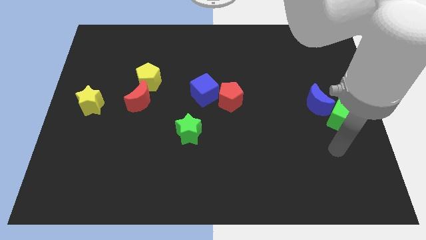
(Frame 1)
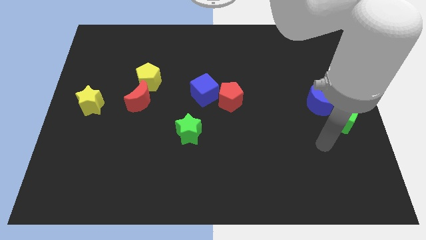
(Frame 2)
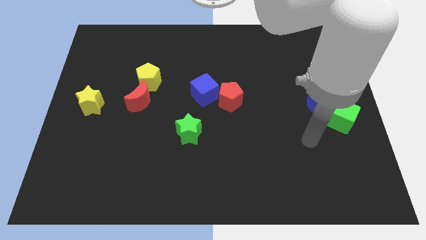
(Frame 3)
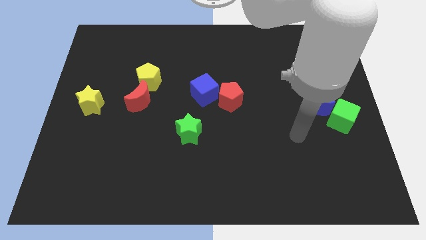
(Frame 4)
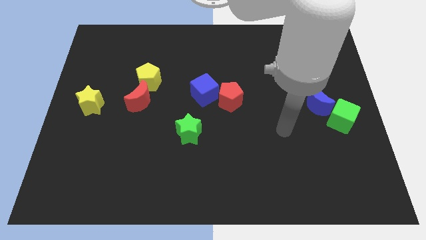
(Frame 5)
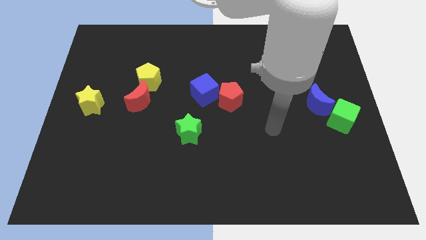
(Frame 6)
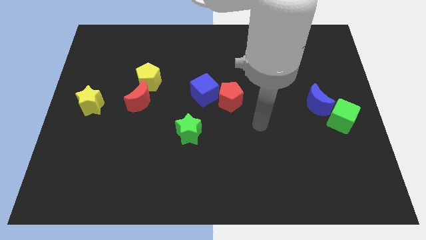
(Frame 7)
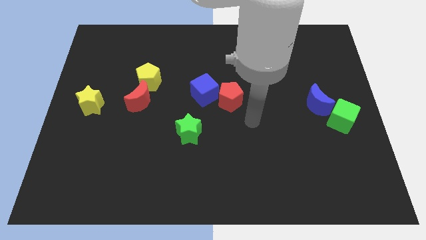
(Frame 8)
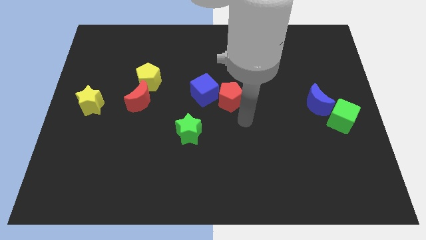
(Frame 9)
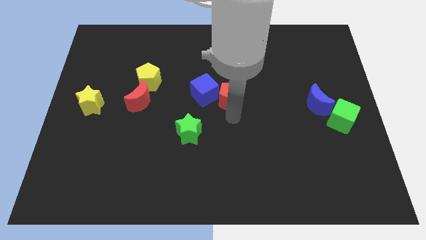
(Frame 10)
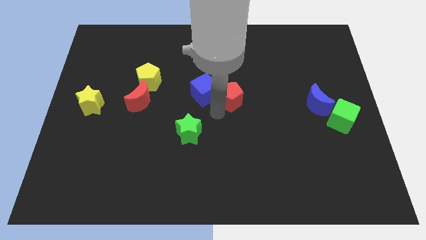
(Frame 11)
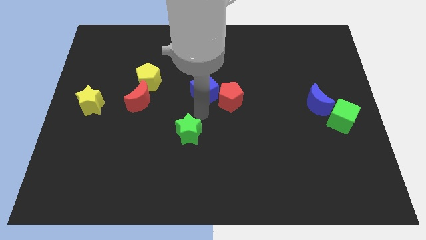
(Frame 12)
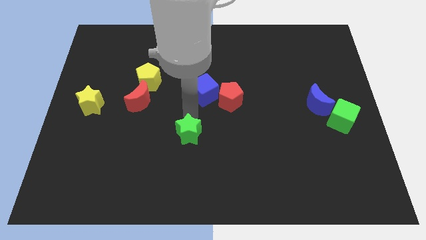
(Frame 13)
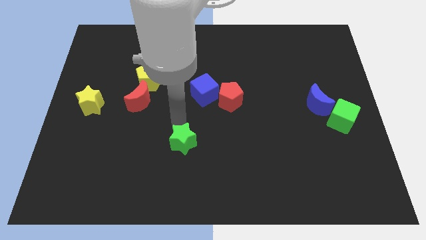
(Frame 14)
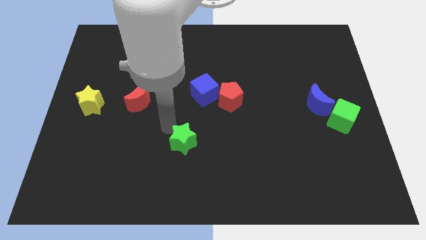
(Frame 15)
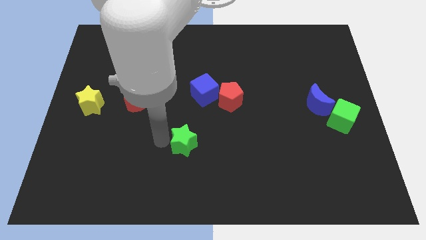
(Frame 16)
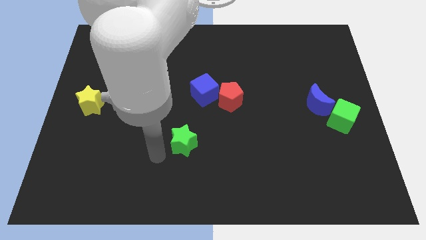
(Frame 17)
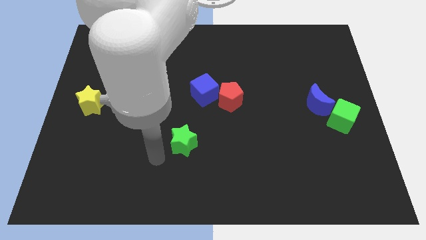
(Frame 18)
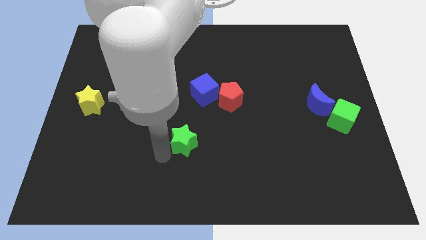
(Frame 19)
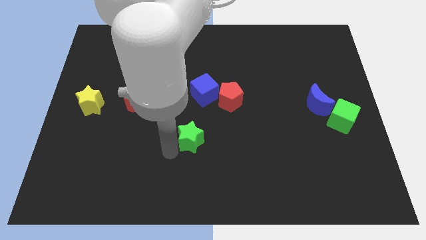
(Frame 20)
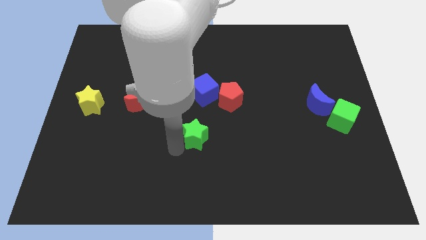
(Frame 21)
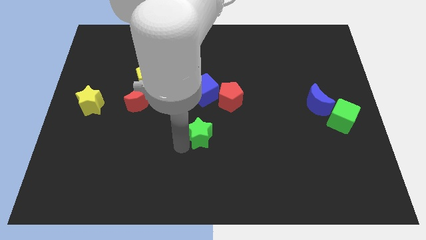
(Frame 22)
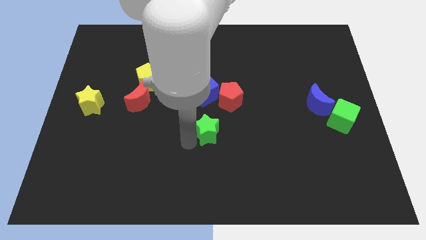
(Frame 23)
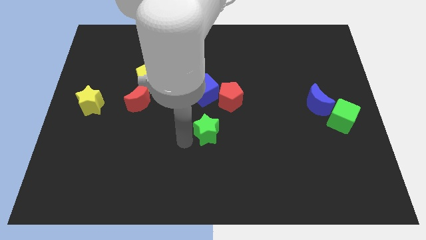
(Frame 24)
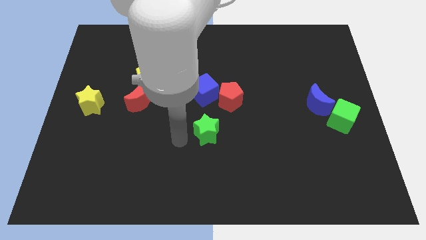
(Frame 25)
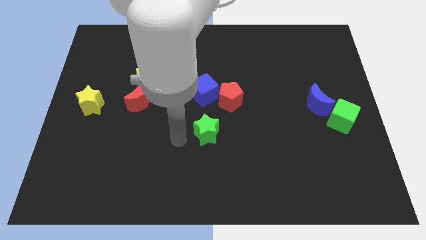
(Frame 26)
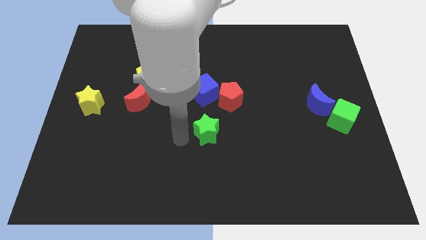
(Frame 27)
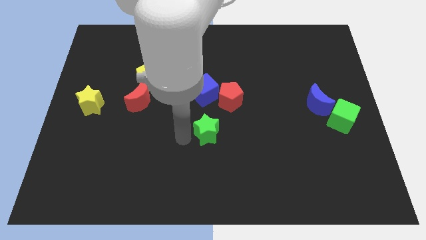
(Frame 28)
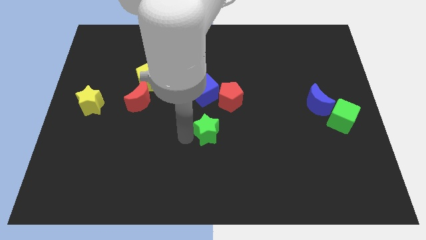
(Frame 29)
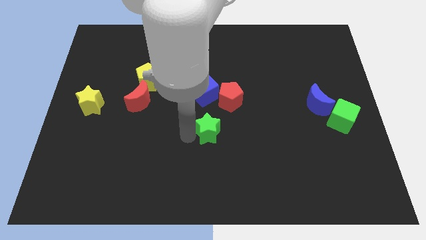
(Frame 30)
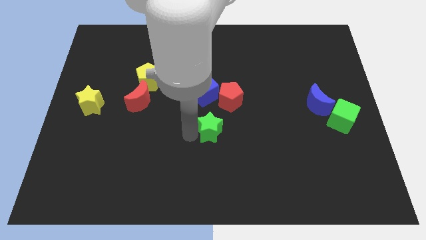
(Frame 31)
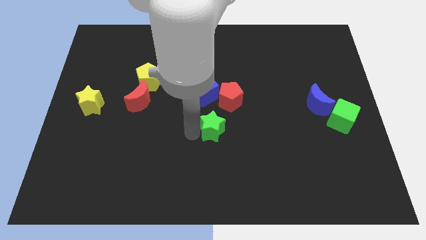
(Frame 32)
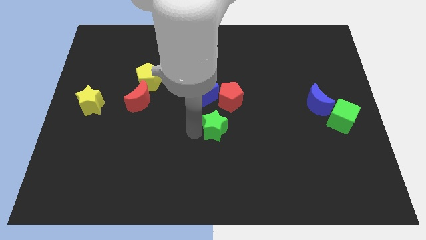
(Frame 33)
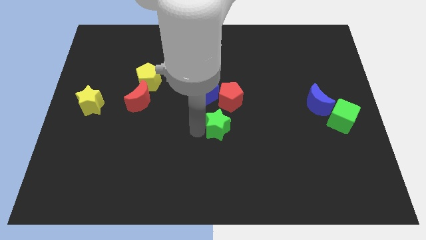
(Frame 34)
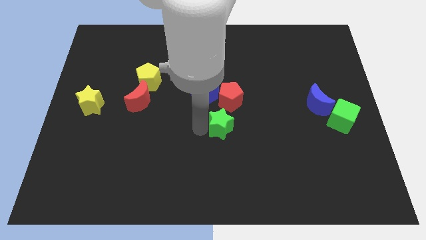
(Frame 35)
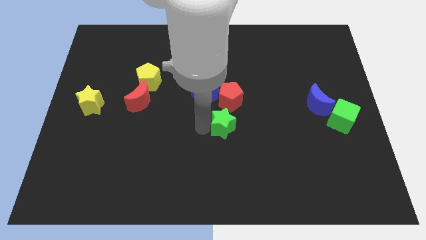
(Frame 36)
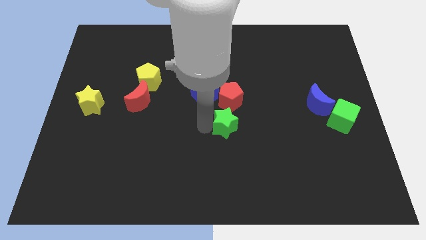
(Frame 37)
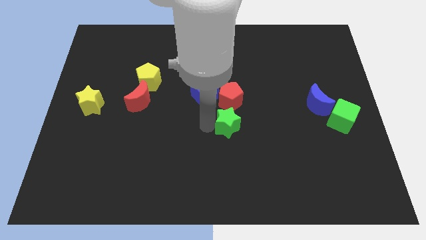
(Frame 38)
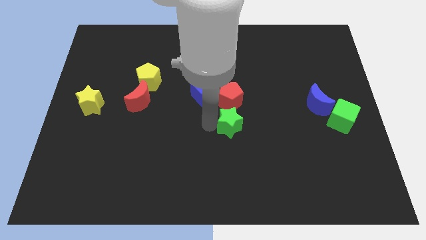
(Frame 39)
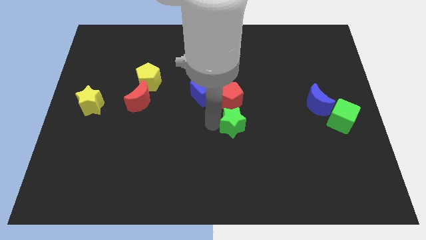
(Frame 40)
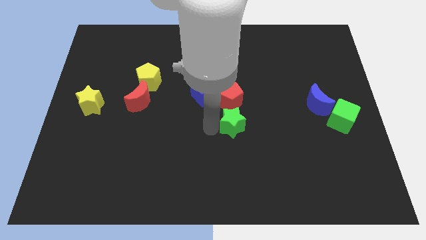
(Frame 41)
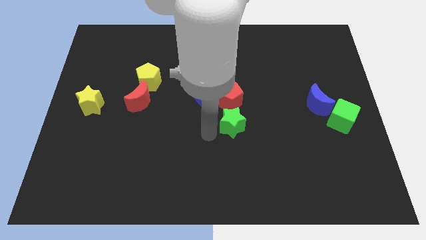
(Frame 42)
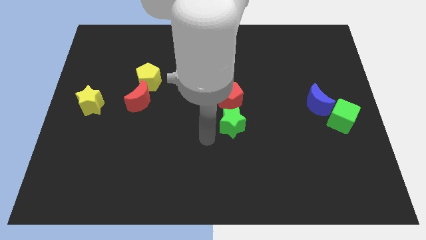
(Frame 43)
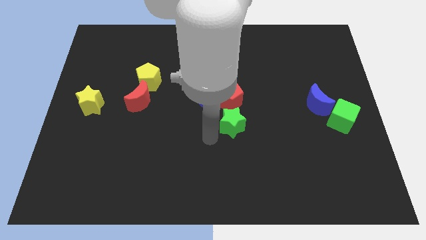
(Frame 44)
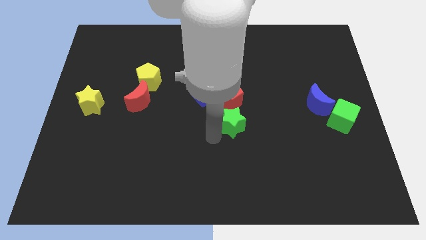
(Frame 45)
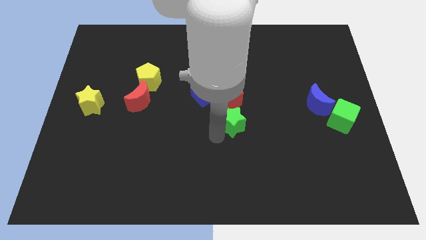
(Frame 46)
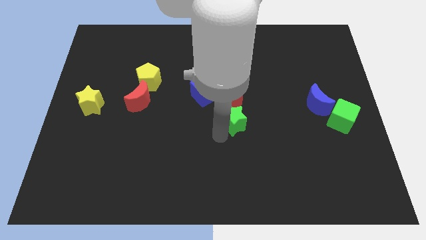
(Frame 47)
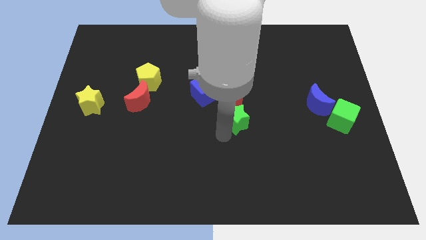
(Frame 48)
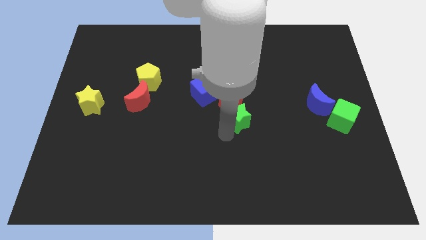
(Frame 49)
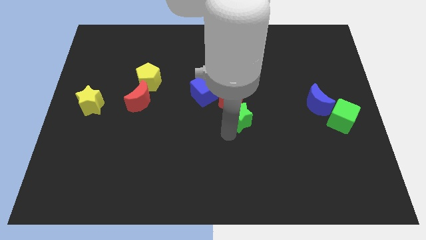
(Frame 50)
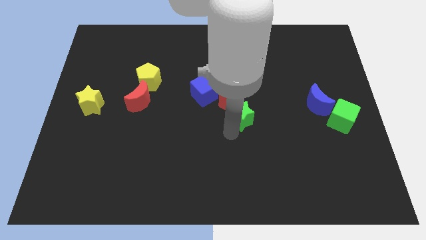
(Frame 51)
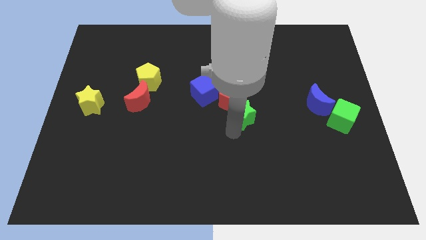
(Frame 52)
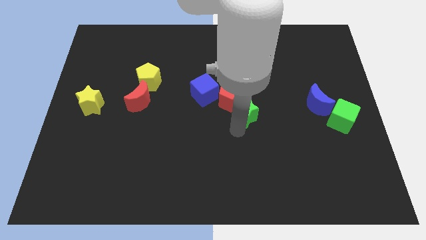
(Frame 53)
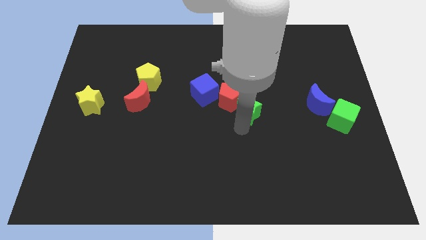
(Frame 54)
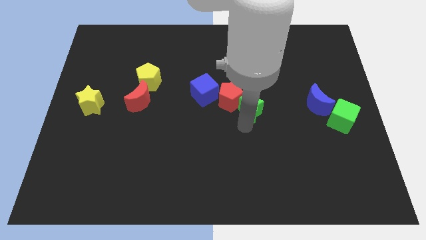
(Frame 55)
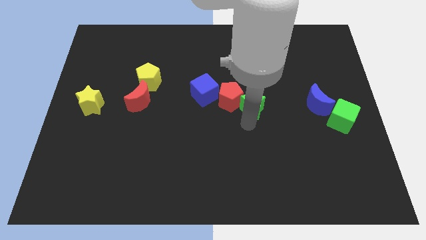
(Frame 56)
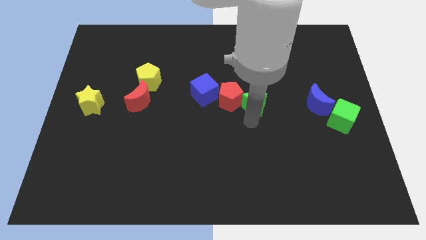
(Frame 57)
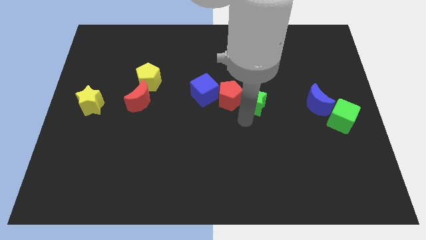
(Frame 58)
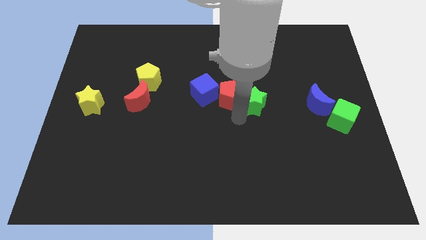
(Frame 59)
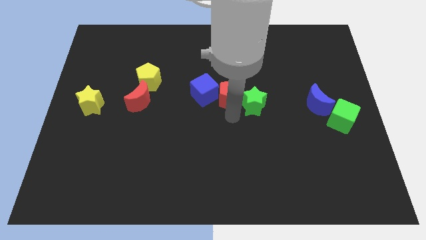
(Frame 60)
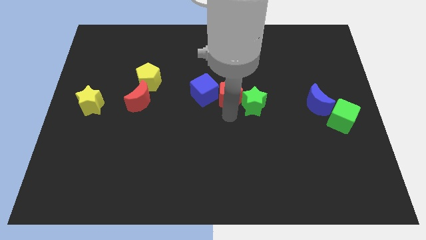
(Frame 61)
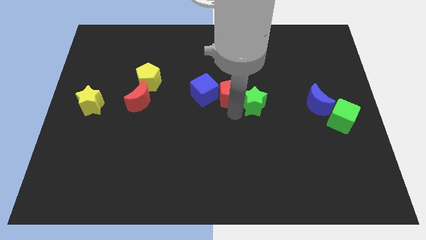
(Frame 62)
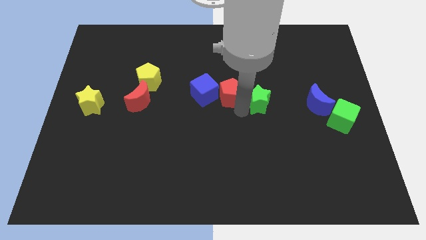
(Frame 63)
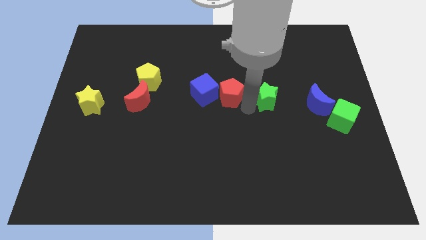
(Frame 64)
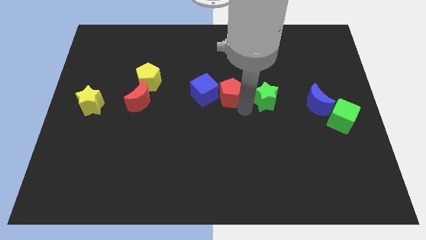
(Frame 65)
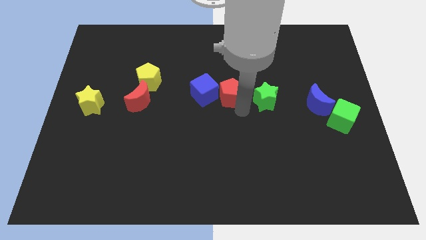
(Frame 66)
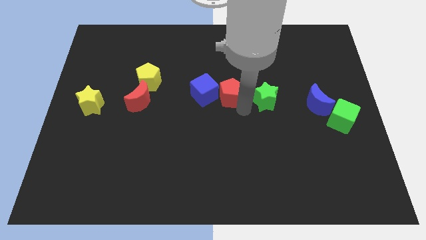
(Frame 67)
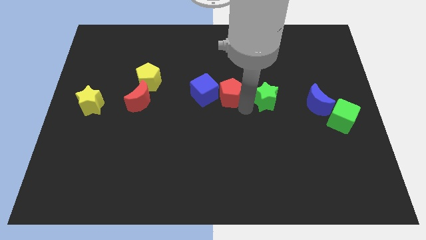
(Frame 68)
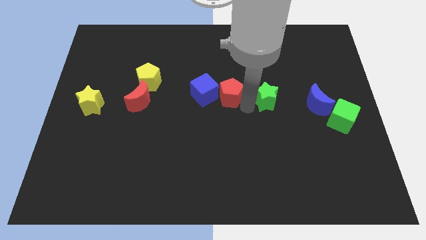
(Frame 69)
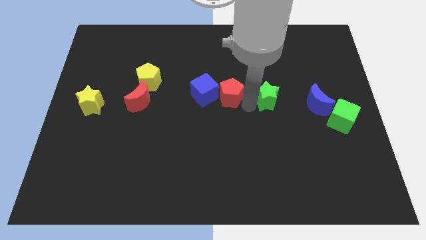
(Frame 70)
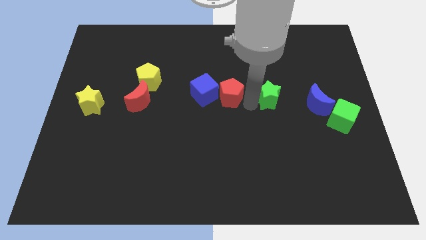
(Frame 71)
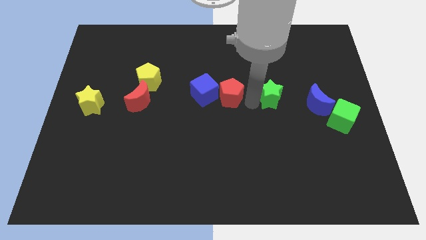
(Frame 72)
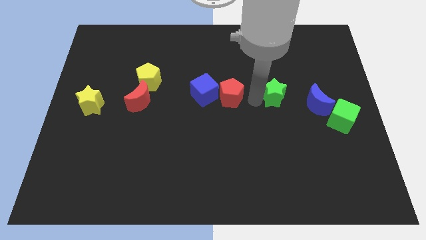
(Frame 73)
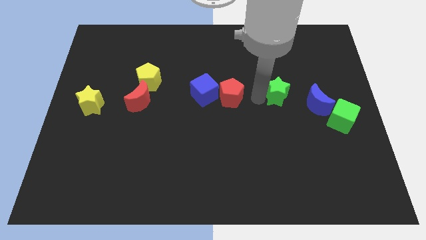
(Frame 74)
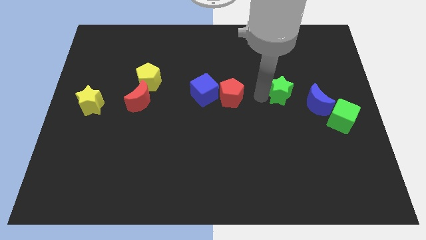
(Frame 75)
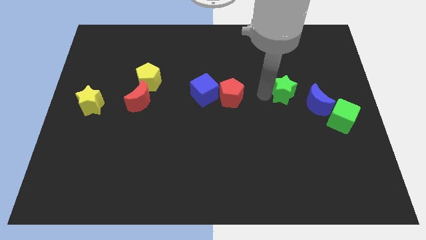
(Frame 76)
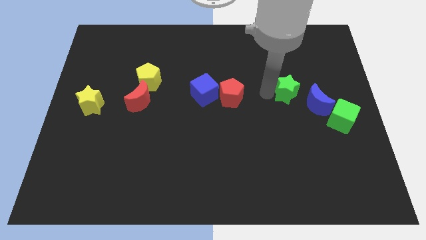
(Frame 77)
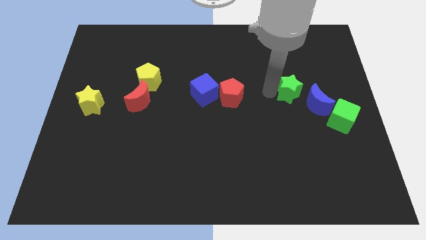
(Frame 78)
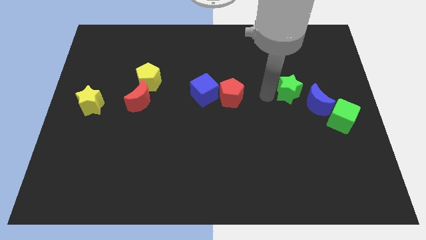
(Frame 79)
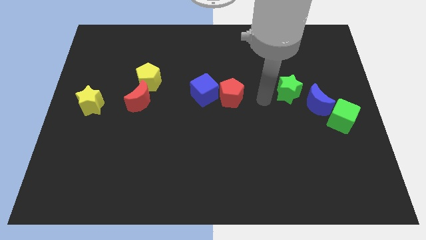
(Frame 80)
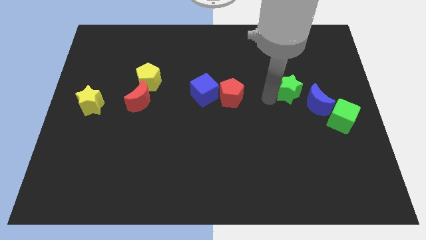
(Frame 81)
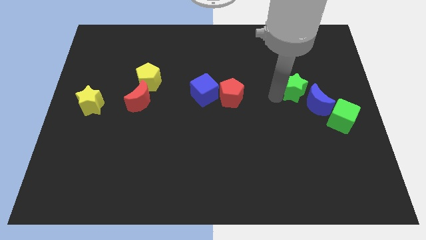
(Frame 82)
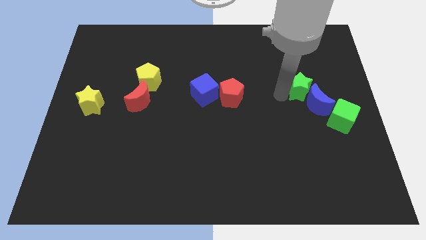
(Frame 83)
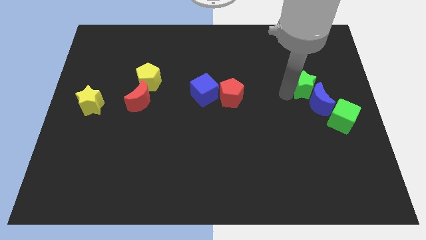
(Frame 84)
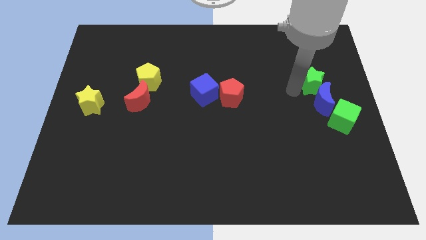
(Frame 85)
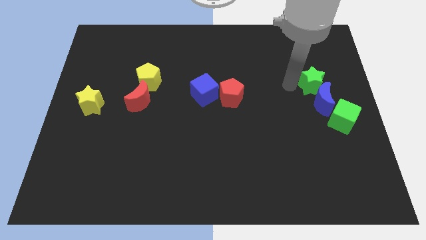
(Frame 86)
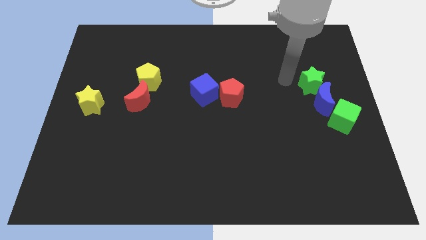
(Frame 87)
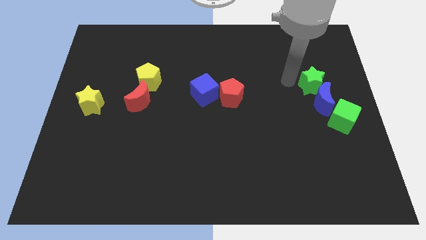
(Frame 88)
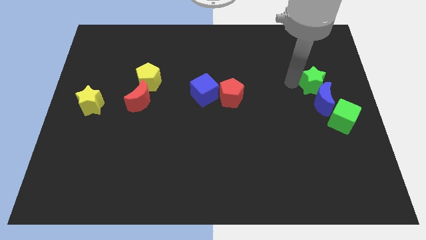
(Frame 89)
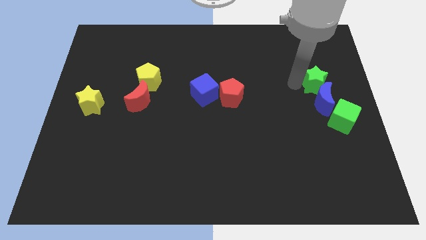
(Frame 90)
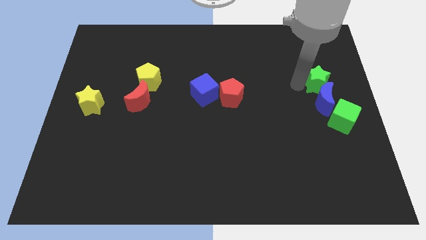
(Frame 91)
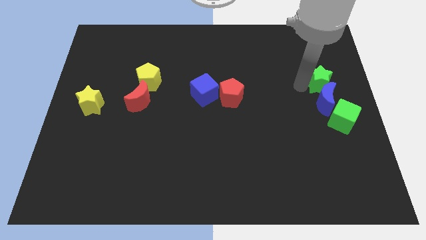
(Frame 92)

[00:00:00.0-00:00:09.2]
slide the green star to the right side
